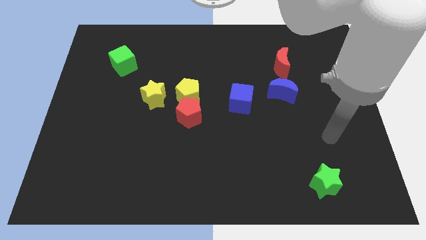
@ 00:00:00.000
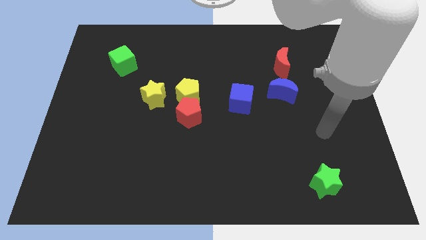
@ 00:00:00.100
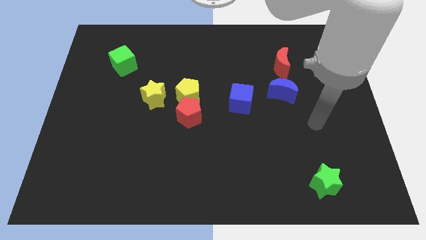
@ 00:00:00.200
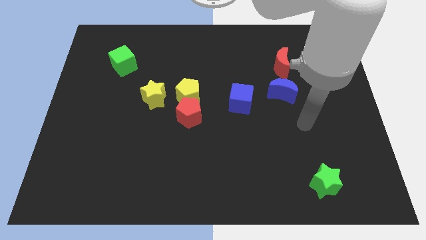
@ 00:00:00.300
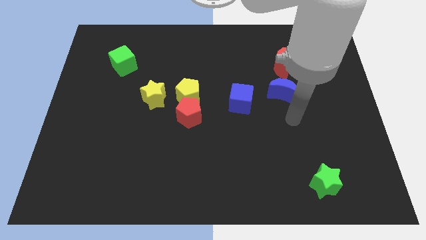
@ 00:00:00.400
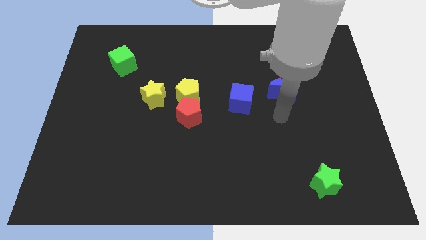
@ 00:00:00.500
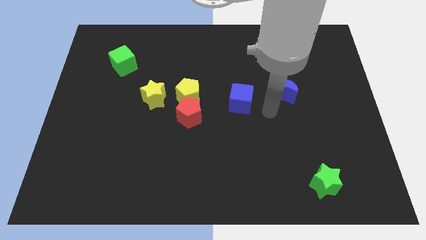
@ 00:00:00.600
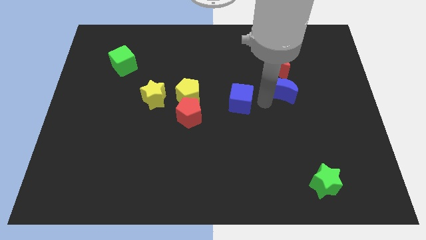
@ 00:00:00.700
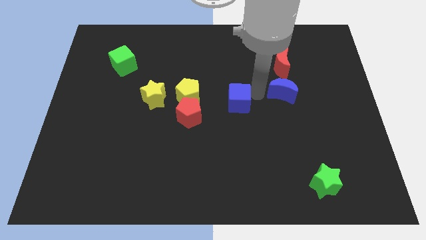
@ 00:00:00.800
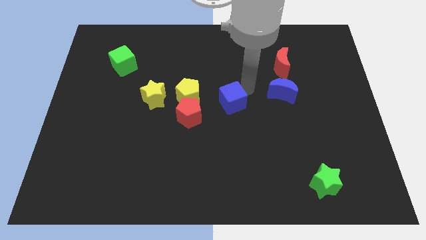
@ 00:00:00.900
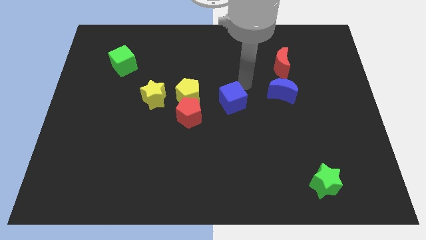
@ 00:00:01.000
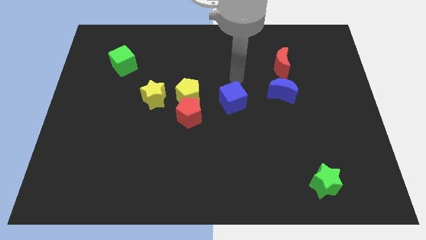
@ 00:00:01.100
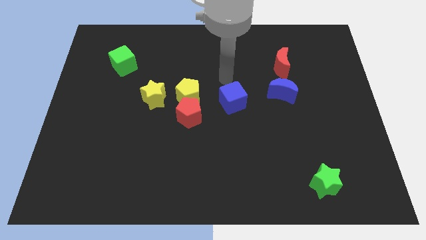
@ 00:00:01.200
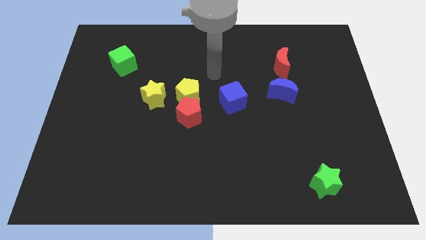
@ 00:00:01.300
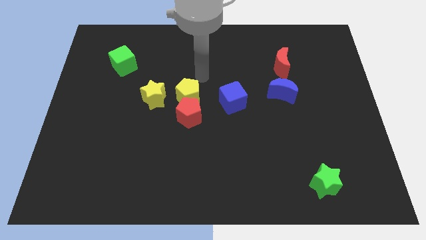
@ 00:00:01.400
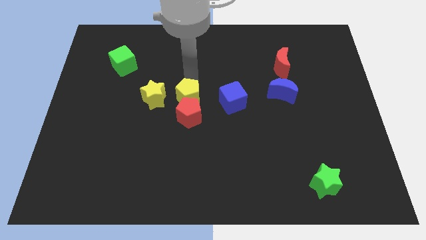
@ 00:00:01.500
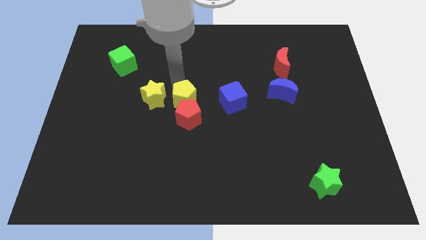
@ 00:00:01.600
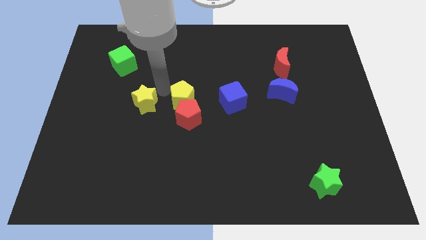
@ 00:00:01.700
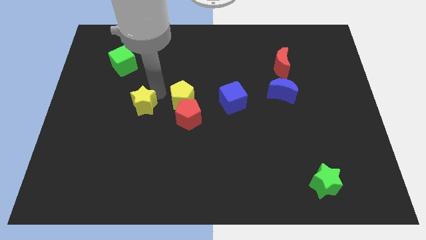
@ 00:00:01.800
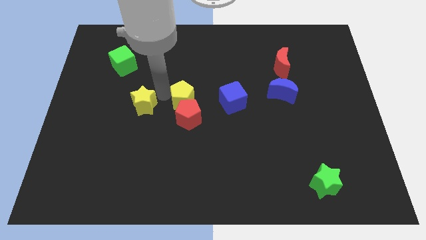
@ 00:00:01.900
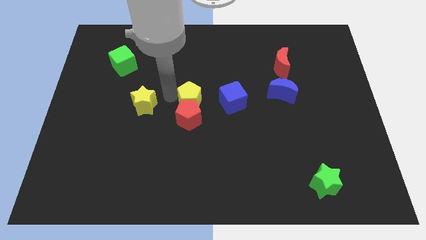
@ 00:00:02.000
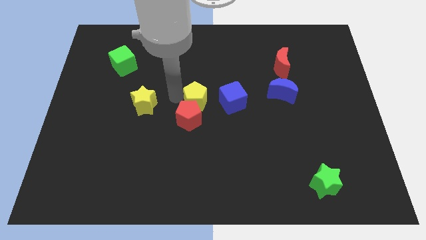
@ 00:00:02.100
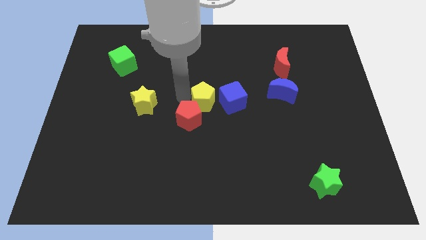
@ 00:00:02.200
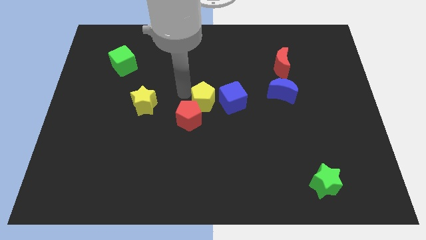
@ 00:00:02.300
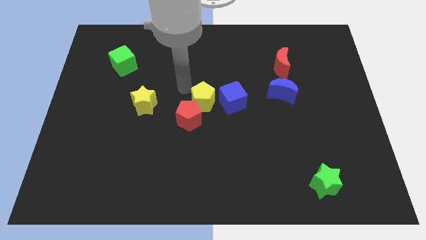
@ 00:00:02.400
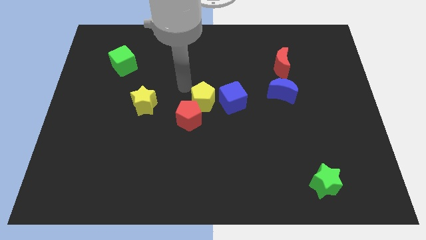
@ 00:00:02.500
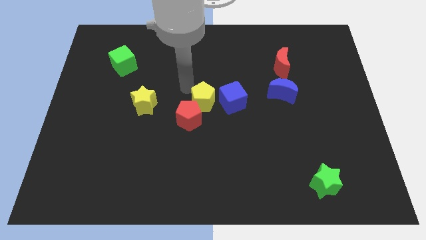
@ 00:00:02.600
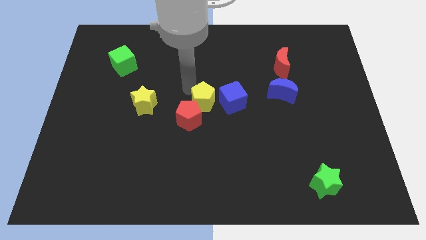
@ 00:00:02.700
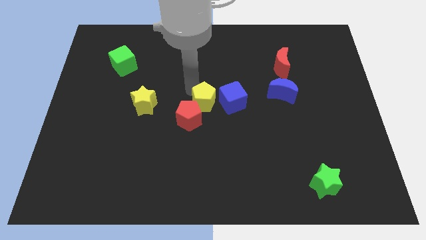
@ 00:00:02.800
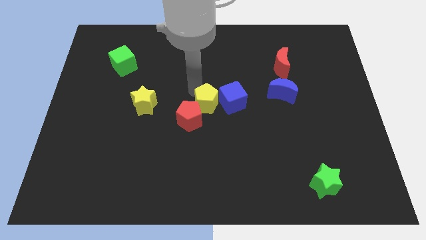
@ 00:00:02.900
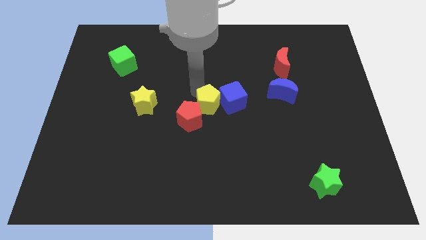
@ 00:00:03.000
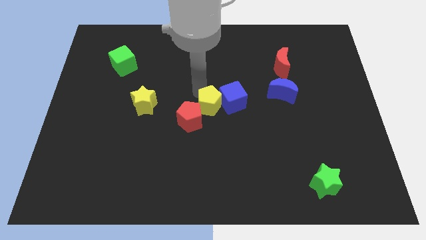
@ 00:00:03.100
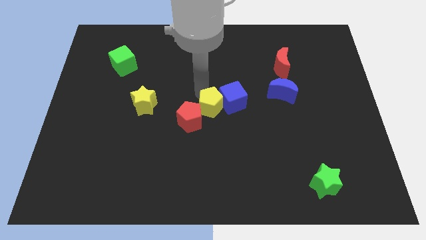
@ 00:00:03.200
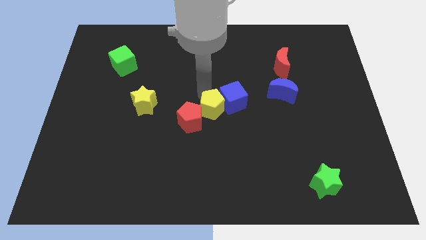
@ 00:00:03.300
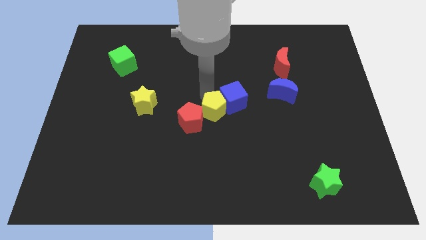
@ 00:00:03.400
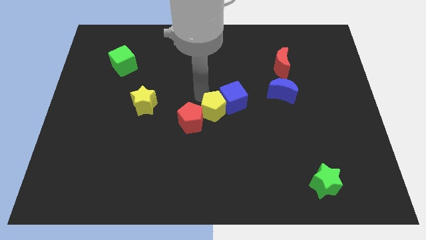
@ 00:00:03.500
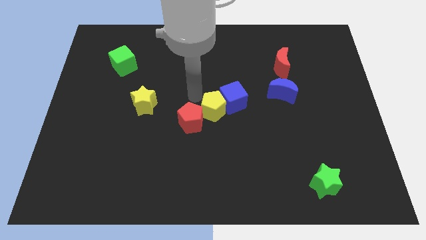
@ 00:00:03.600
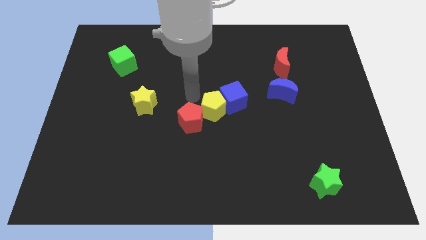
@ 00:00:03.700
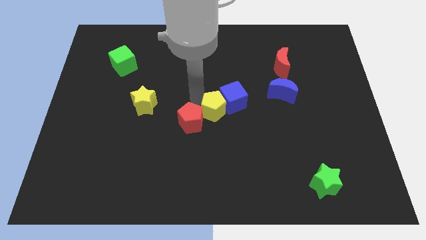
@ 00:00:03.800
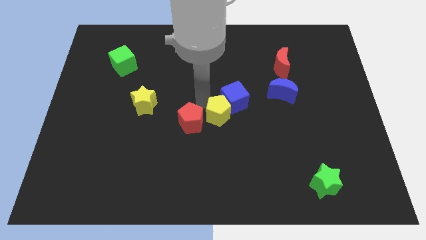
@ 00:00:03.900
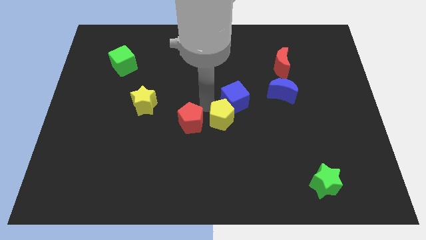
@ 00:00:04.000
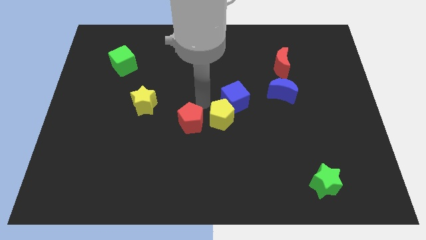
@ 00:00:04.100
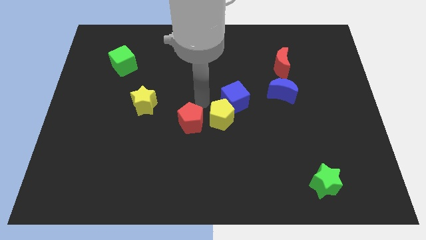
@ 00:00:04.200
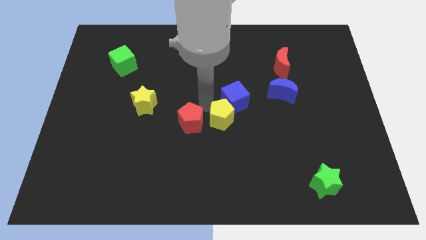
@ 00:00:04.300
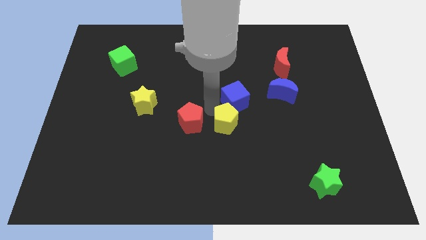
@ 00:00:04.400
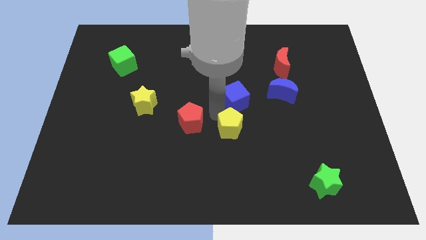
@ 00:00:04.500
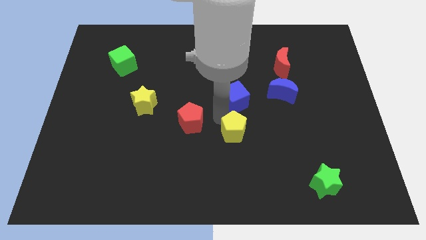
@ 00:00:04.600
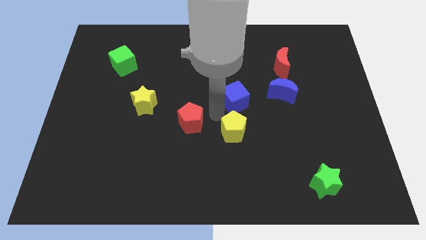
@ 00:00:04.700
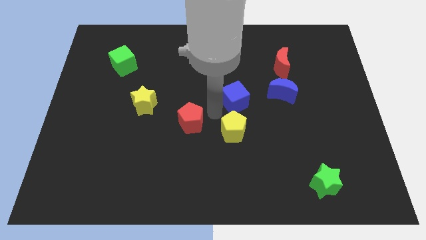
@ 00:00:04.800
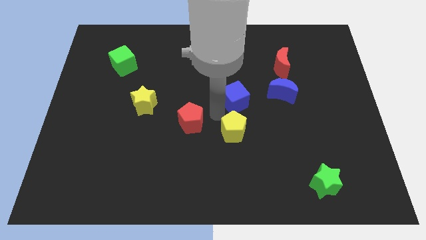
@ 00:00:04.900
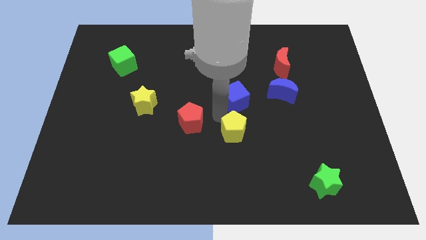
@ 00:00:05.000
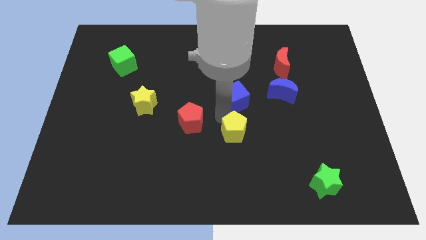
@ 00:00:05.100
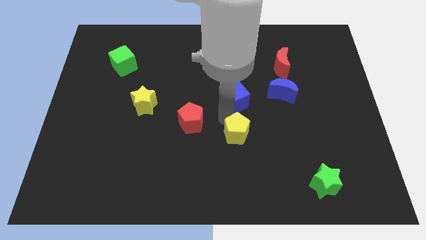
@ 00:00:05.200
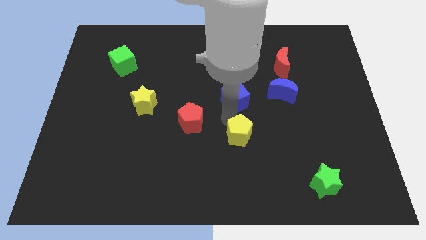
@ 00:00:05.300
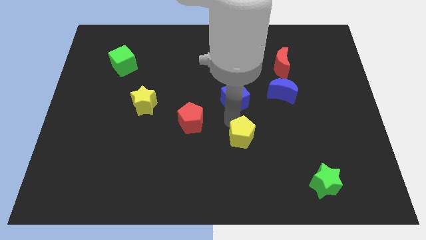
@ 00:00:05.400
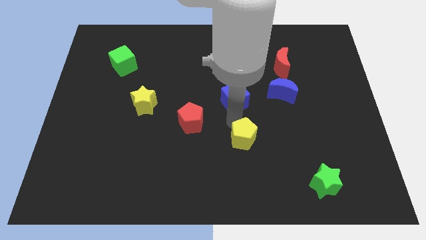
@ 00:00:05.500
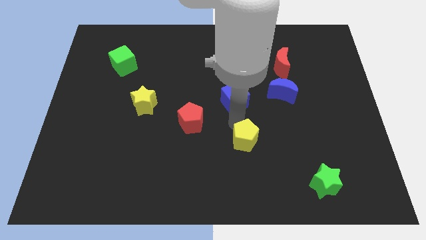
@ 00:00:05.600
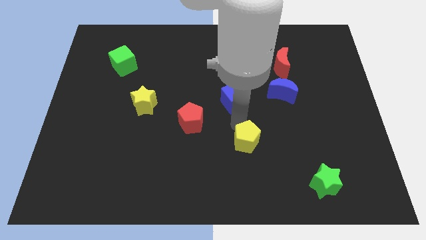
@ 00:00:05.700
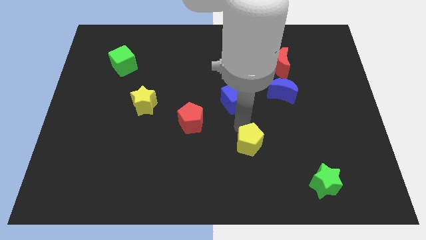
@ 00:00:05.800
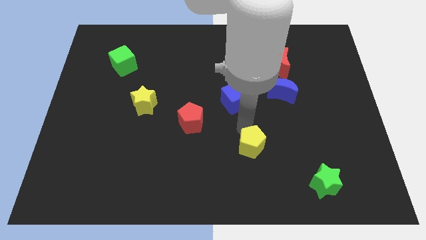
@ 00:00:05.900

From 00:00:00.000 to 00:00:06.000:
slide the yellow pentagon downwards and then right

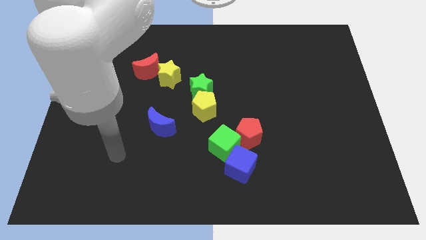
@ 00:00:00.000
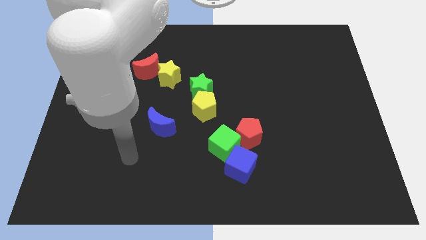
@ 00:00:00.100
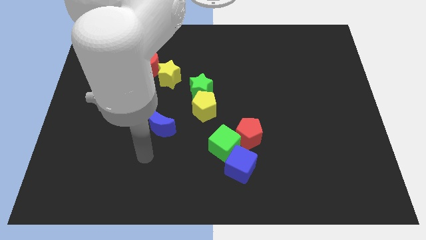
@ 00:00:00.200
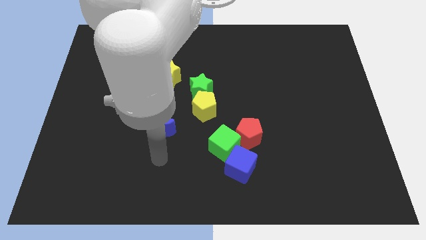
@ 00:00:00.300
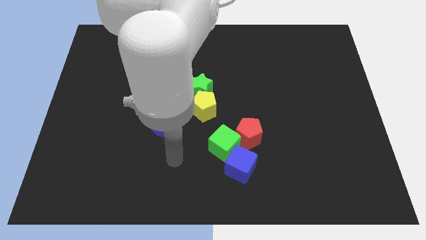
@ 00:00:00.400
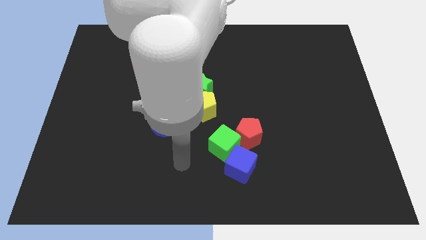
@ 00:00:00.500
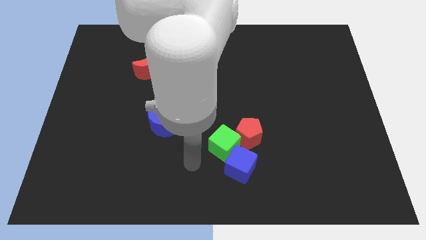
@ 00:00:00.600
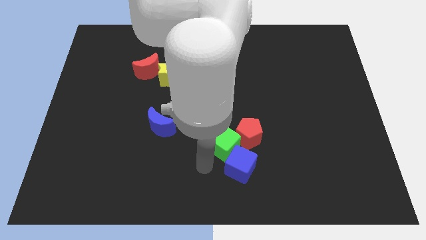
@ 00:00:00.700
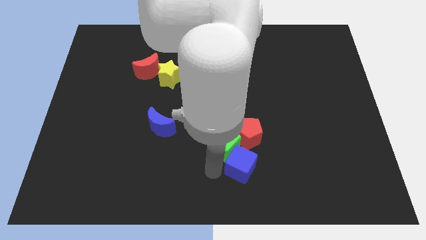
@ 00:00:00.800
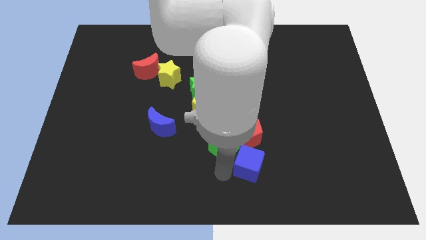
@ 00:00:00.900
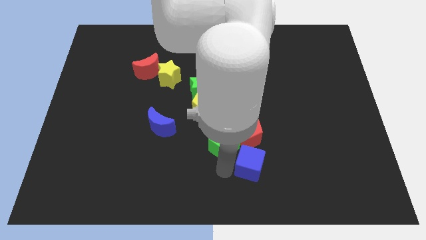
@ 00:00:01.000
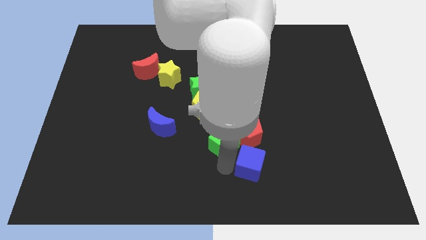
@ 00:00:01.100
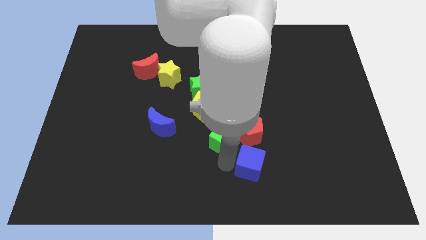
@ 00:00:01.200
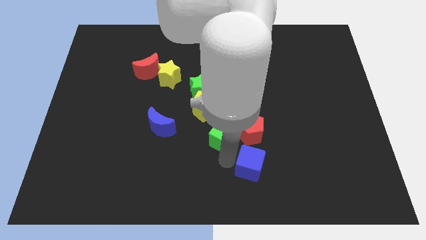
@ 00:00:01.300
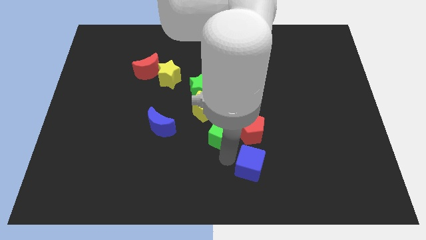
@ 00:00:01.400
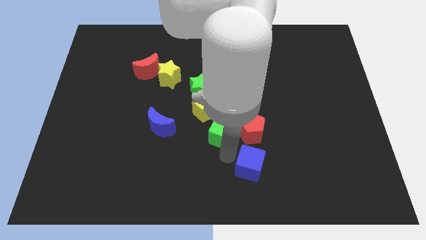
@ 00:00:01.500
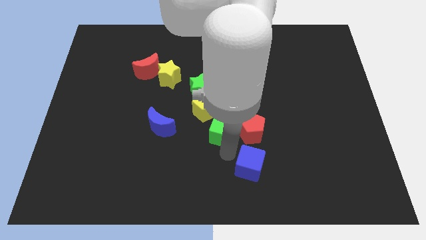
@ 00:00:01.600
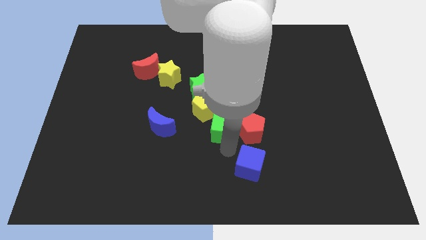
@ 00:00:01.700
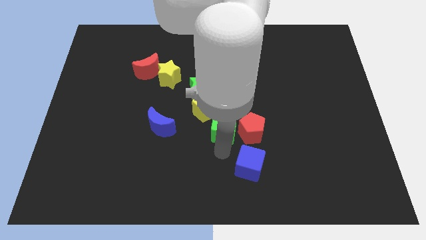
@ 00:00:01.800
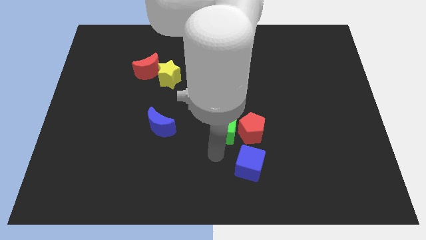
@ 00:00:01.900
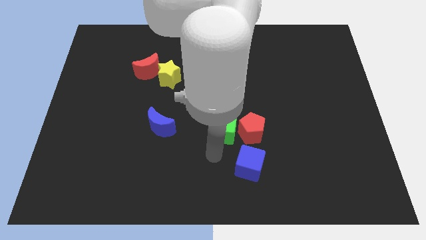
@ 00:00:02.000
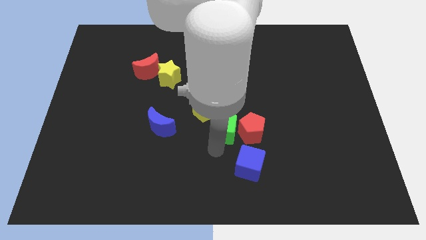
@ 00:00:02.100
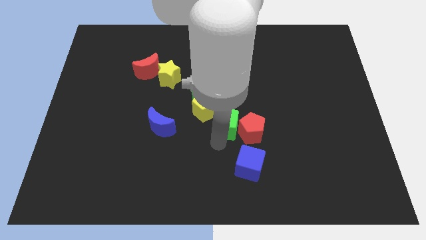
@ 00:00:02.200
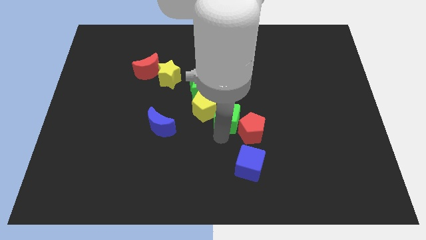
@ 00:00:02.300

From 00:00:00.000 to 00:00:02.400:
move the green cube up a little
